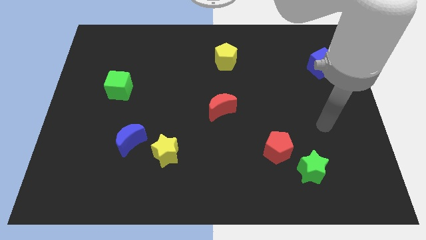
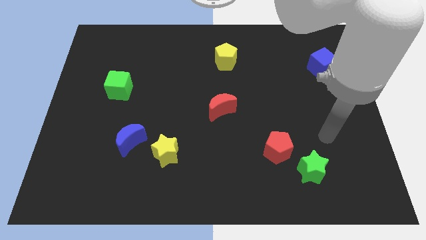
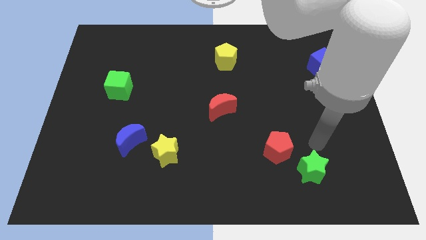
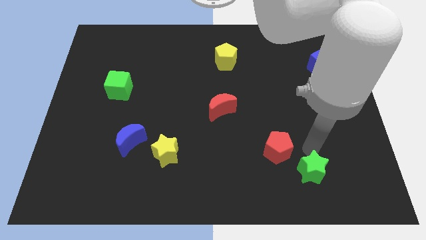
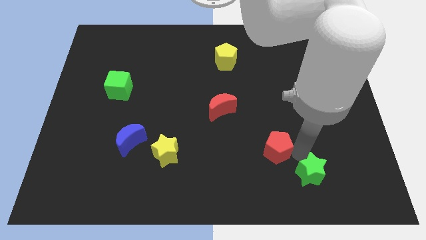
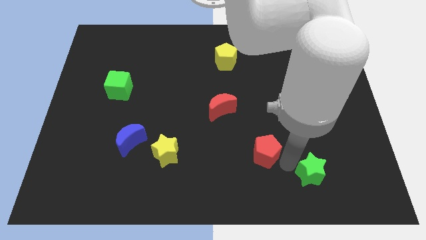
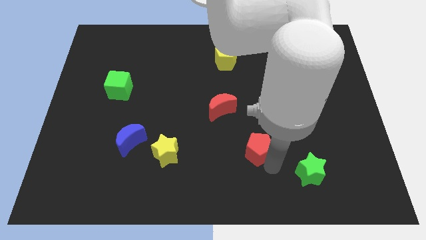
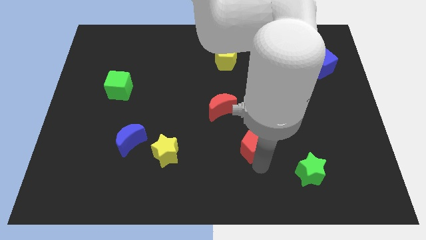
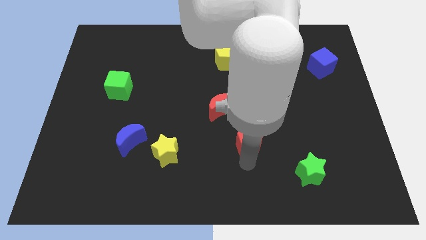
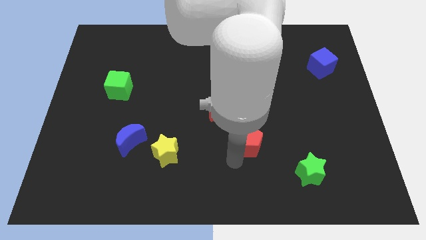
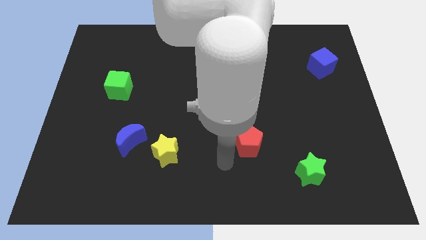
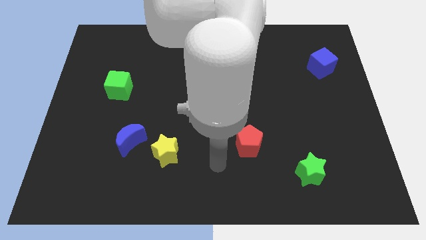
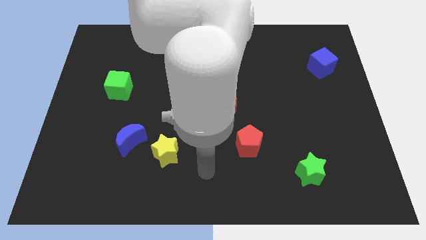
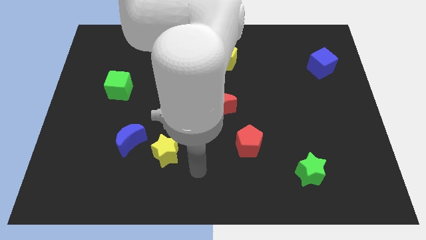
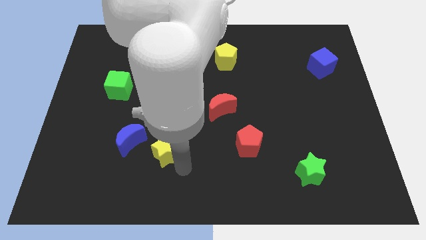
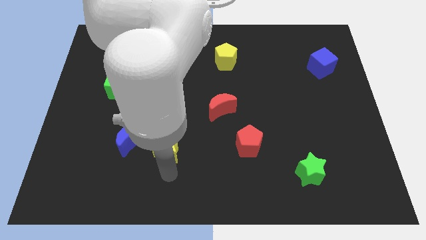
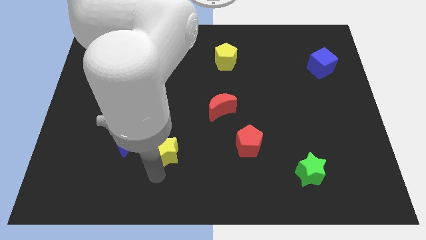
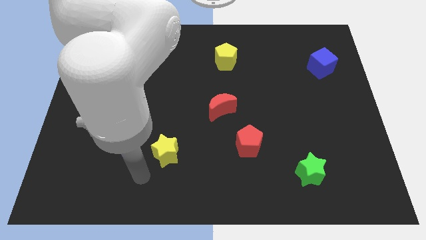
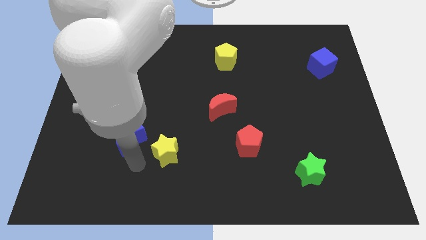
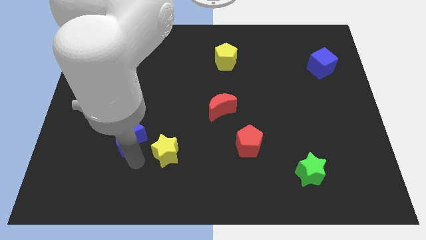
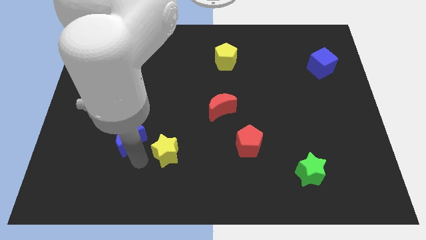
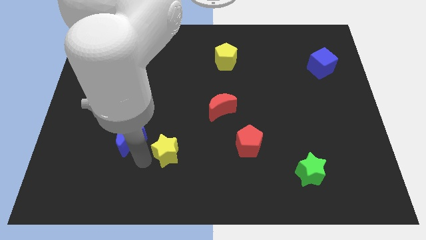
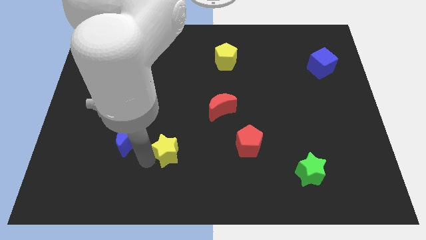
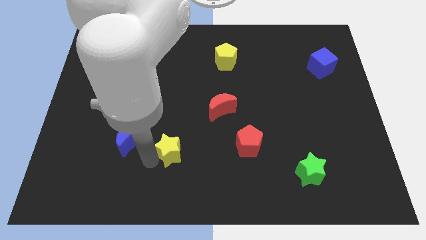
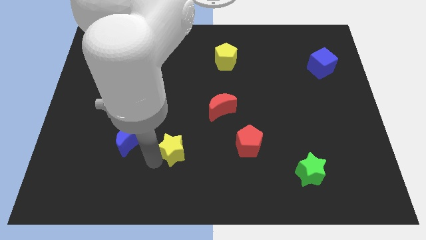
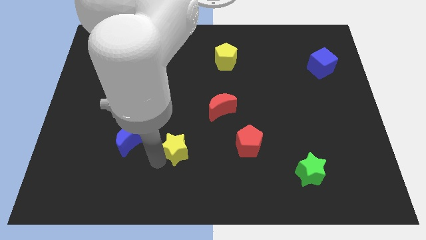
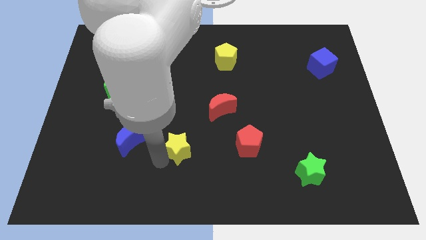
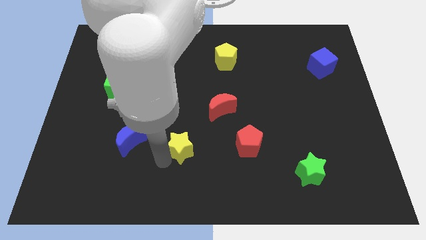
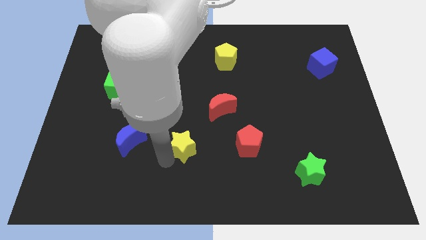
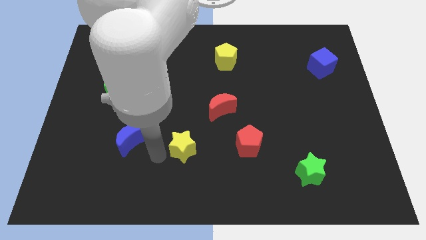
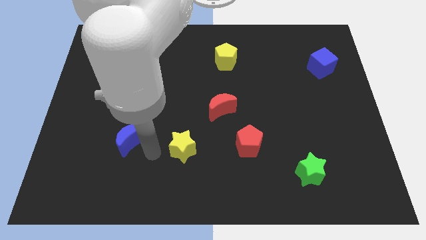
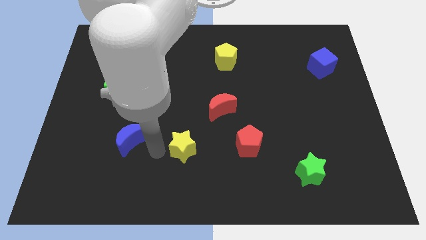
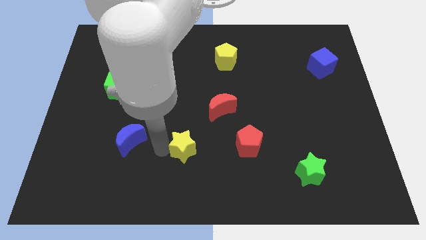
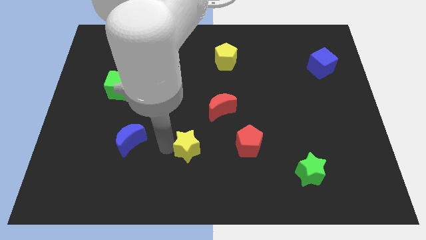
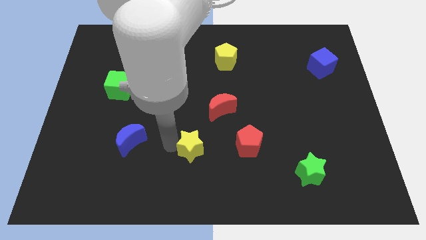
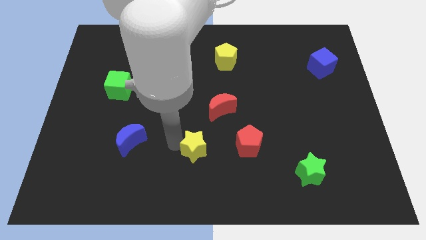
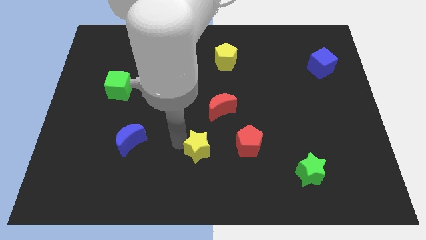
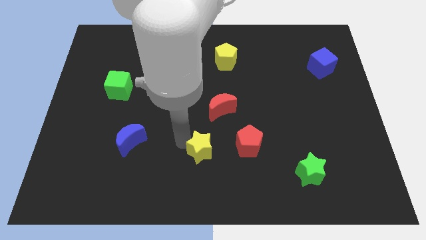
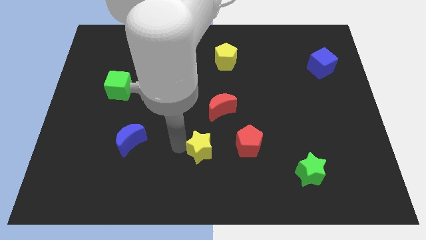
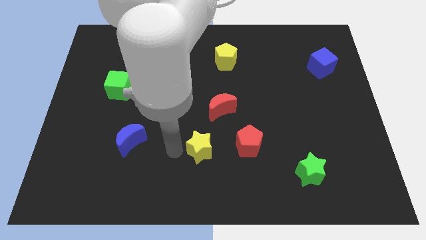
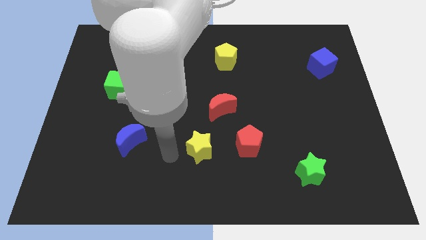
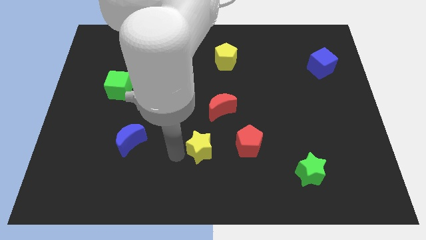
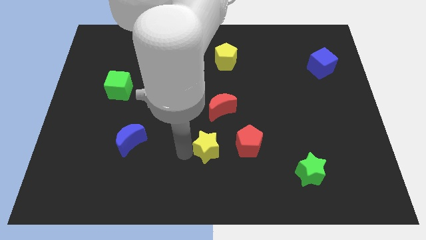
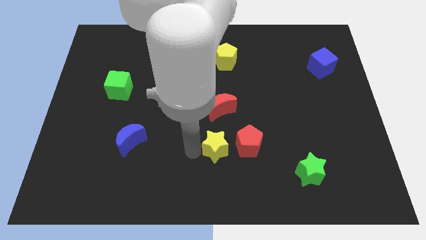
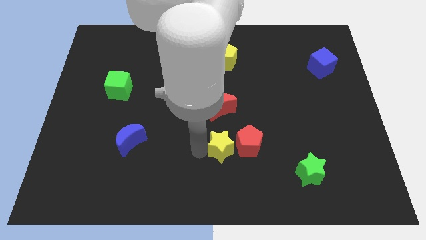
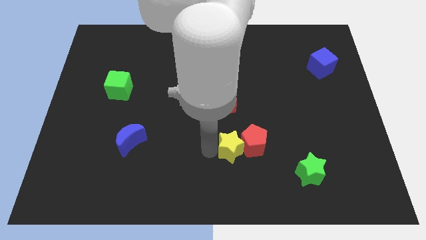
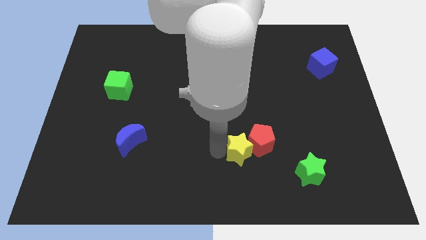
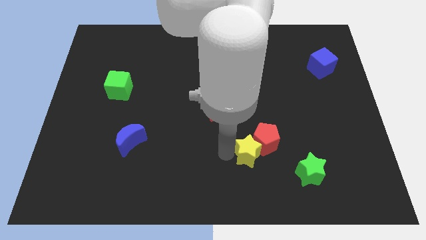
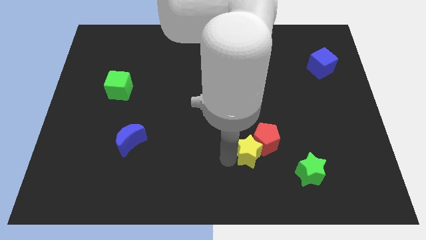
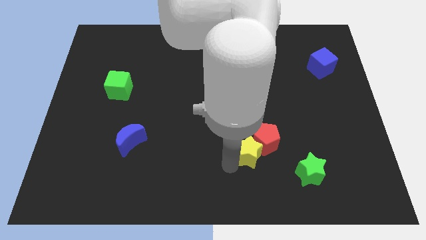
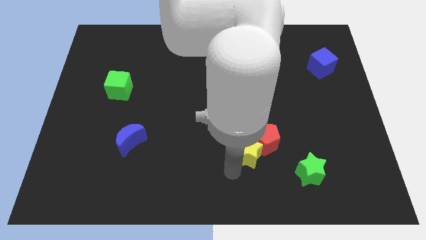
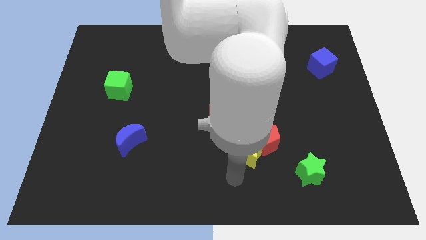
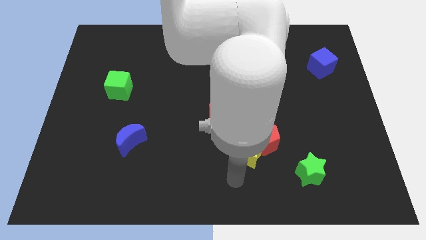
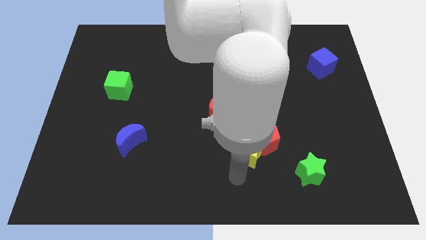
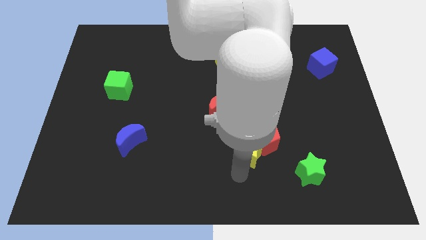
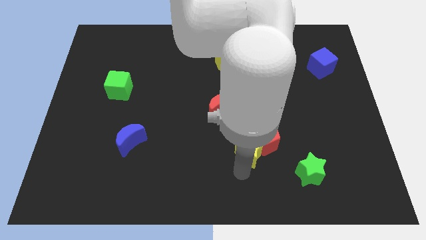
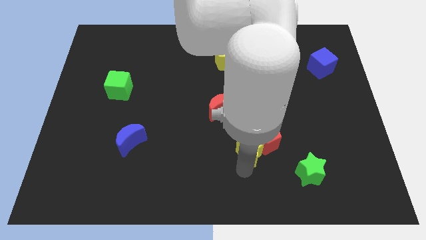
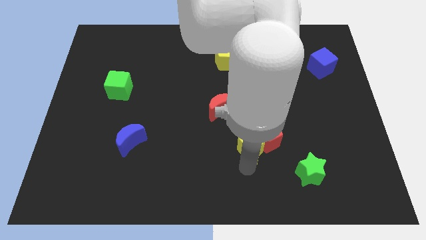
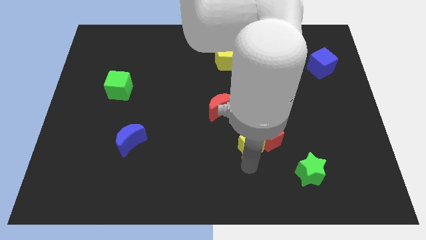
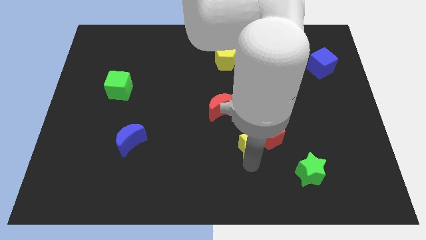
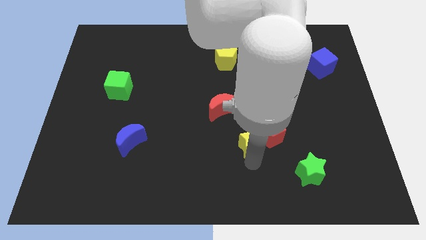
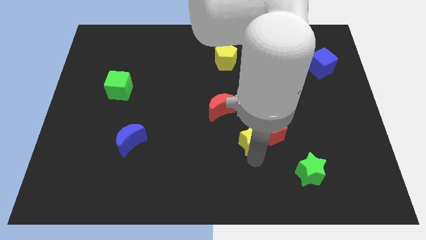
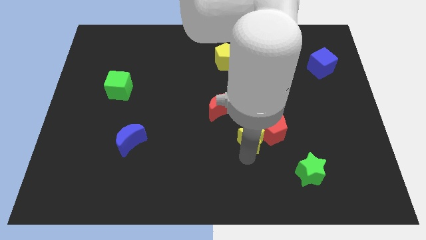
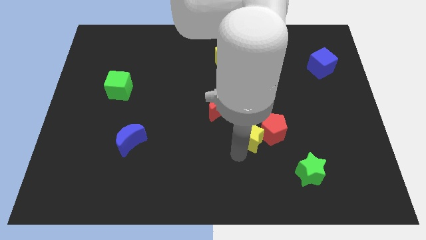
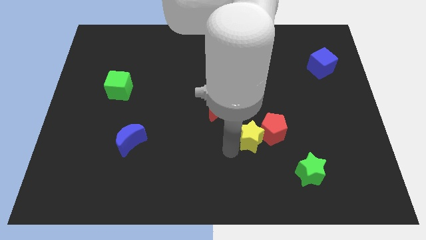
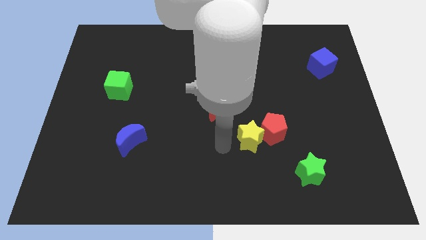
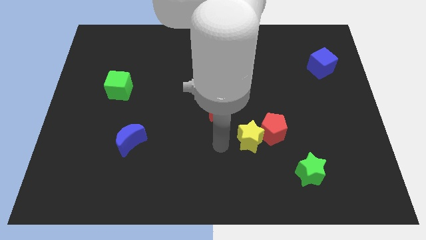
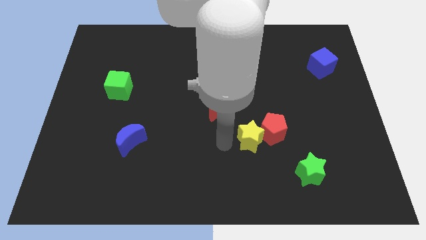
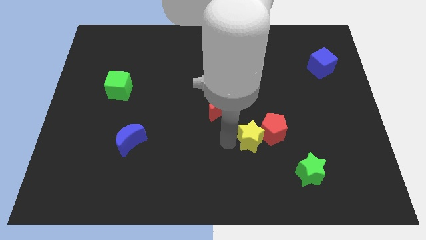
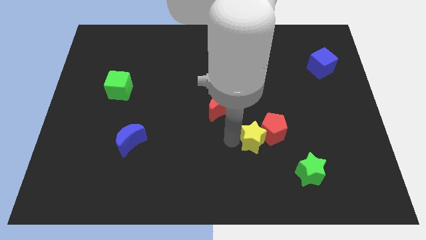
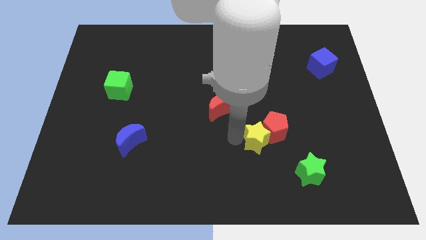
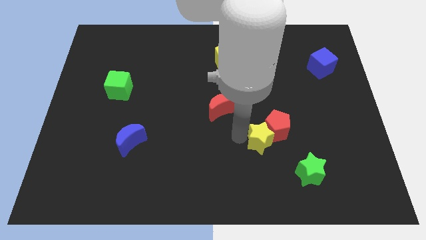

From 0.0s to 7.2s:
push the yellow star right

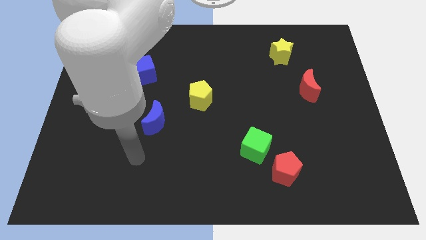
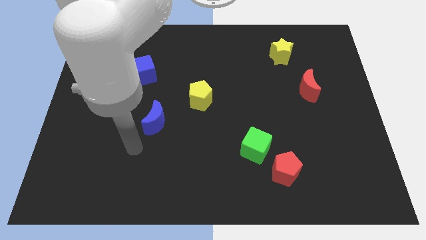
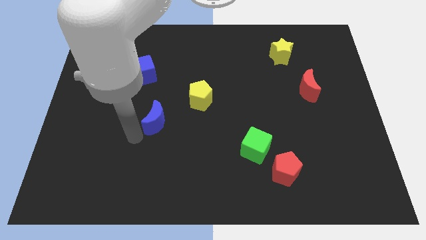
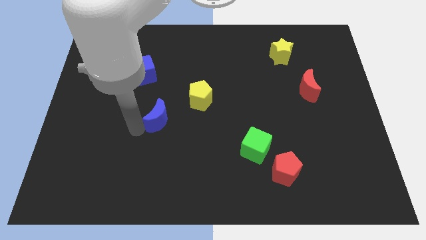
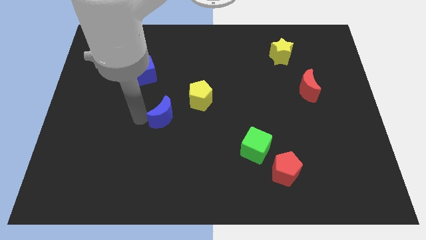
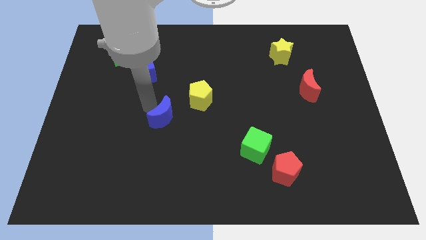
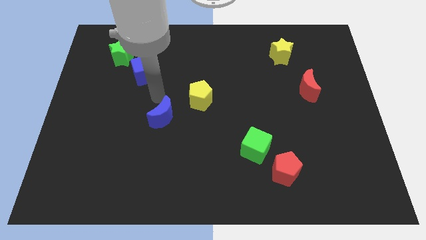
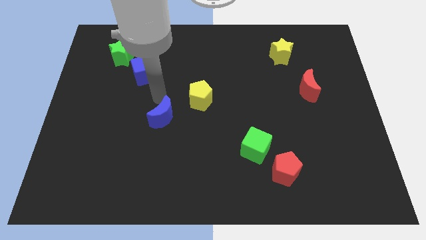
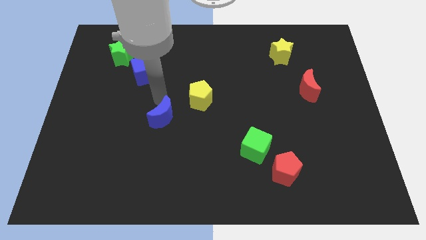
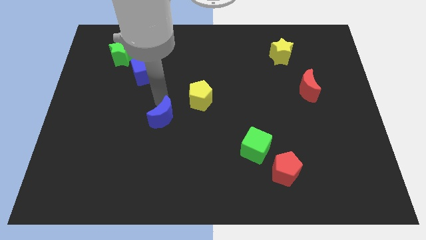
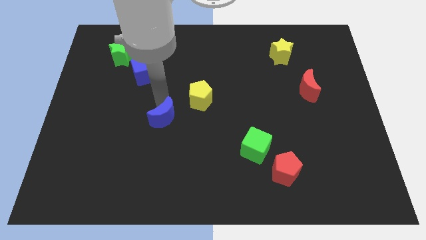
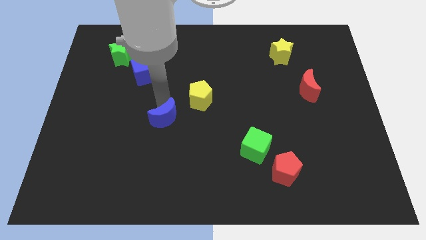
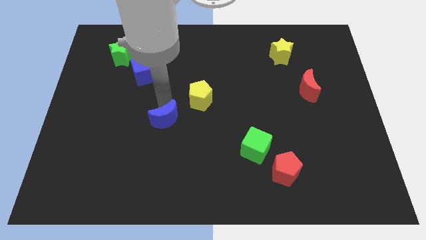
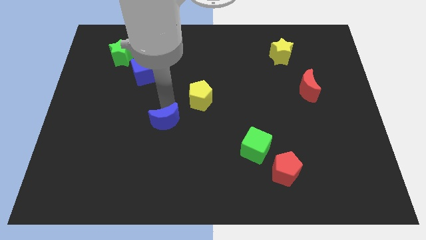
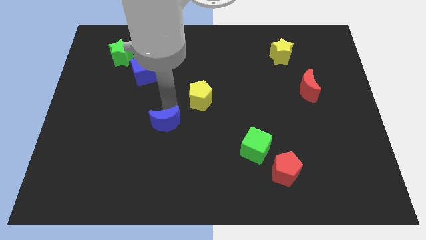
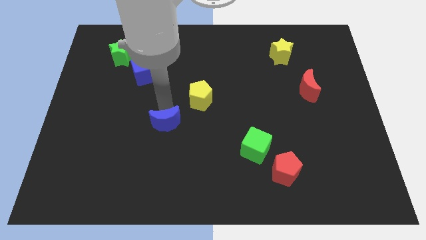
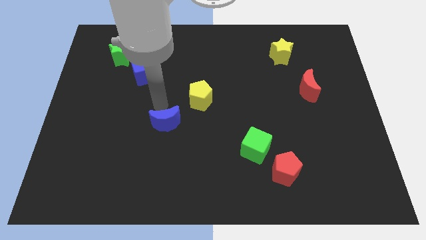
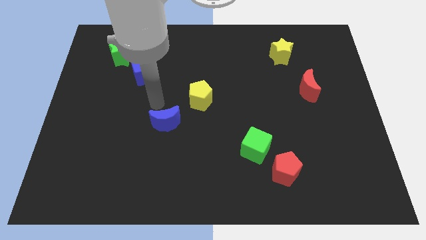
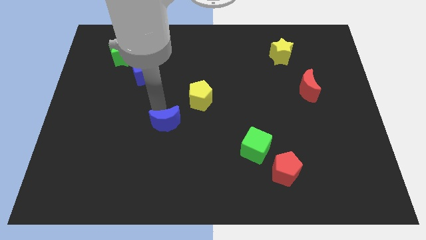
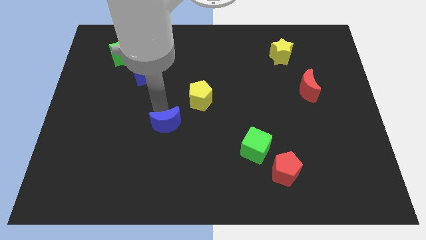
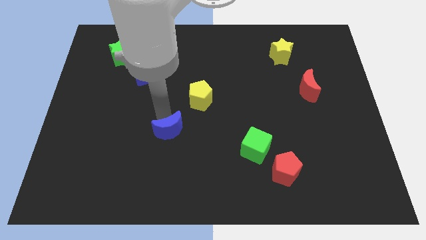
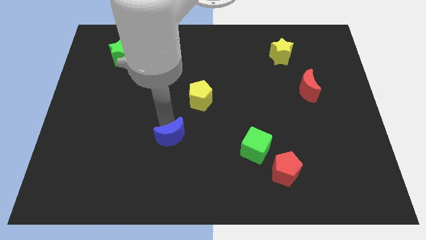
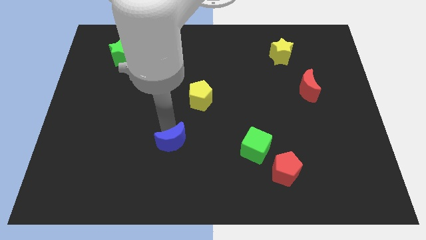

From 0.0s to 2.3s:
slide the blue moon diagonally down and right a little
